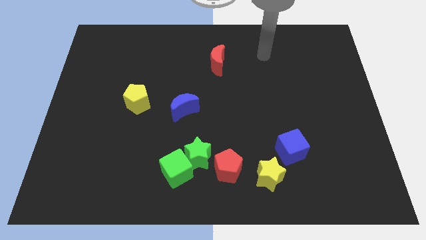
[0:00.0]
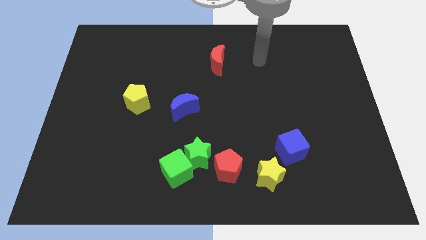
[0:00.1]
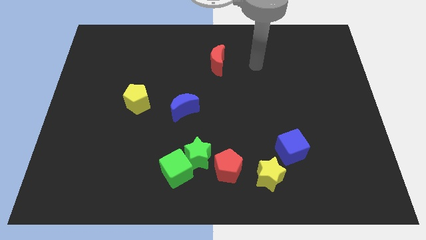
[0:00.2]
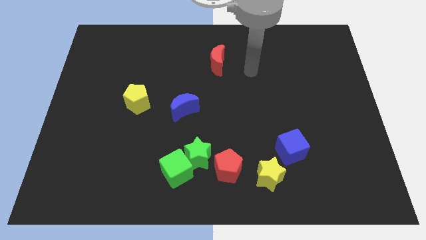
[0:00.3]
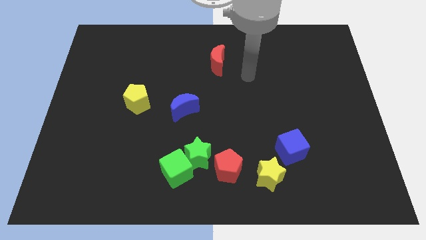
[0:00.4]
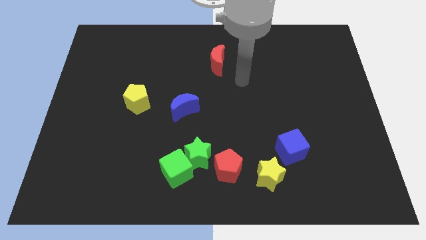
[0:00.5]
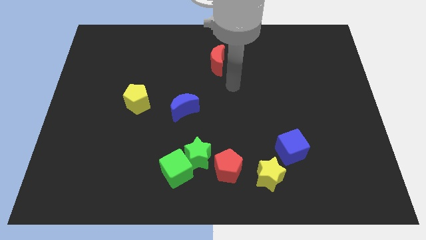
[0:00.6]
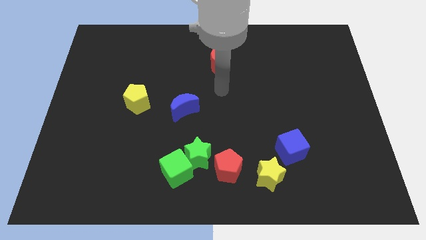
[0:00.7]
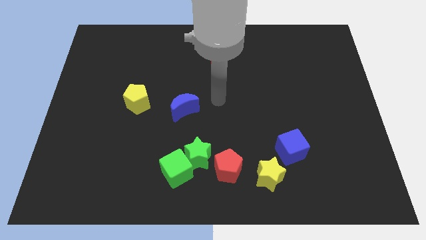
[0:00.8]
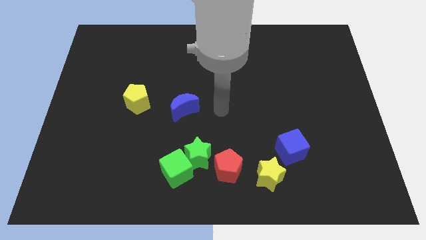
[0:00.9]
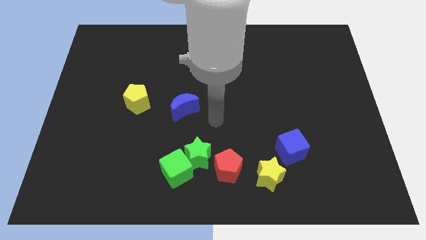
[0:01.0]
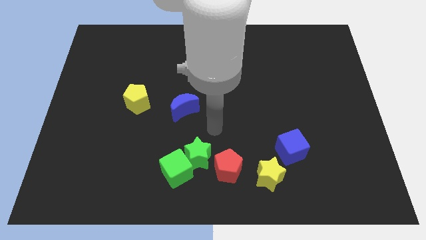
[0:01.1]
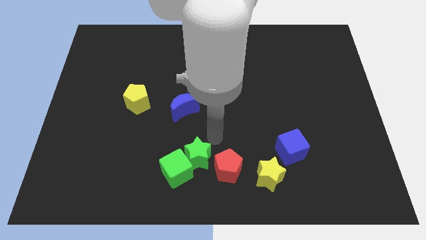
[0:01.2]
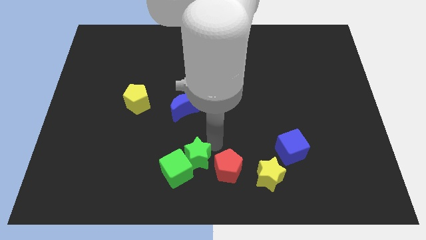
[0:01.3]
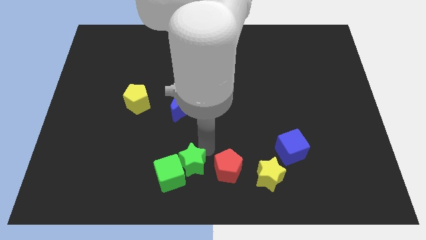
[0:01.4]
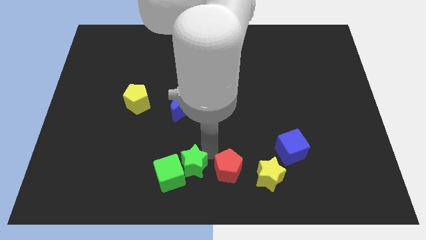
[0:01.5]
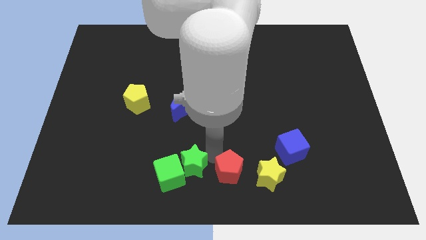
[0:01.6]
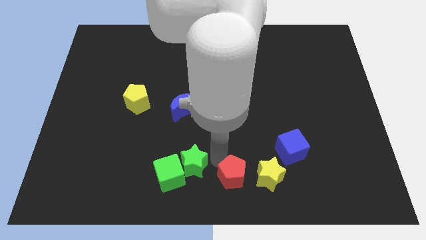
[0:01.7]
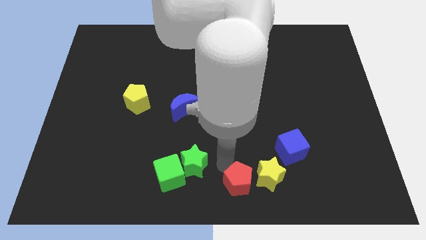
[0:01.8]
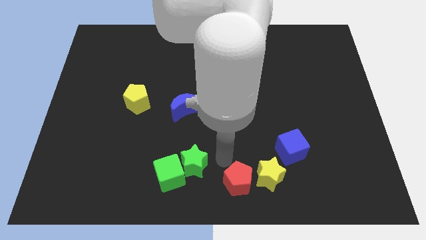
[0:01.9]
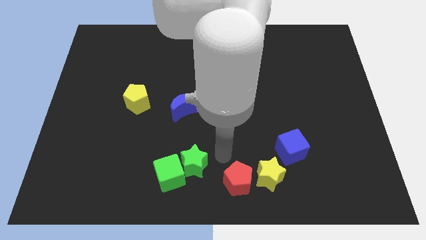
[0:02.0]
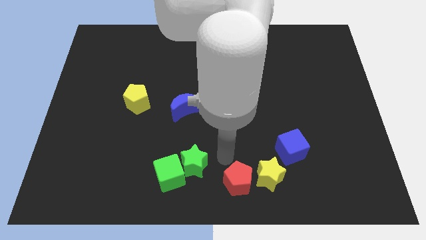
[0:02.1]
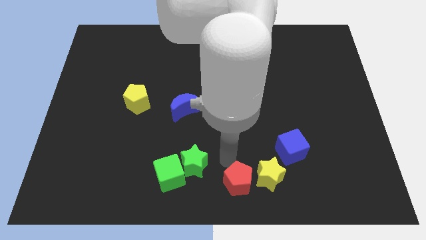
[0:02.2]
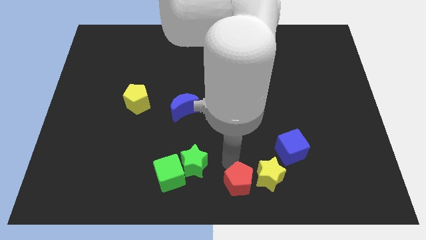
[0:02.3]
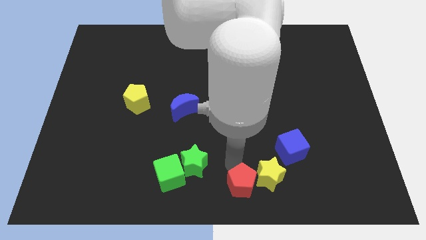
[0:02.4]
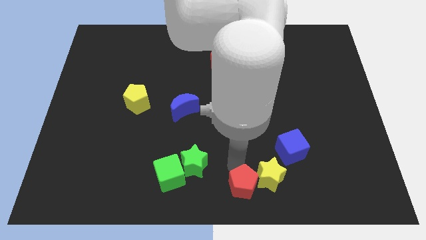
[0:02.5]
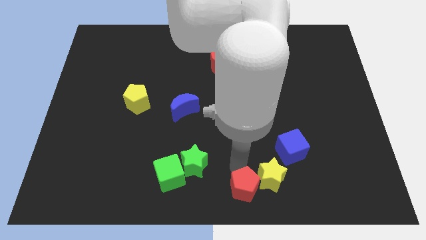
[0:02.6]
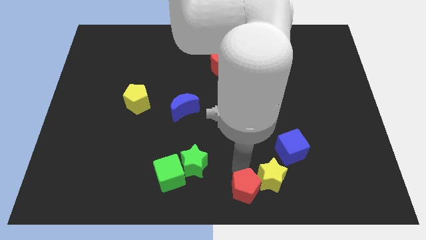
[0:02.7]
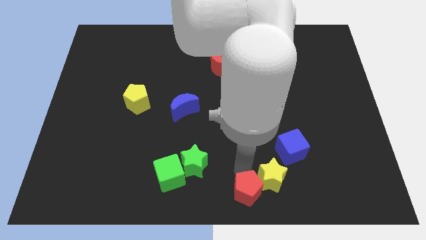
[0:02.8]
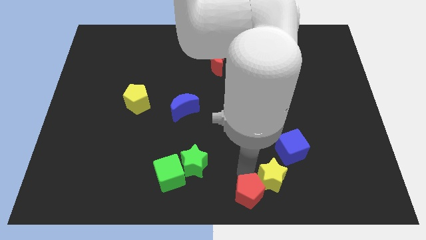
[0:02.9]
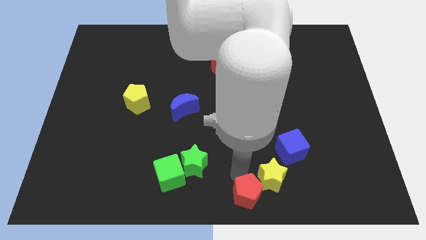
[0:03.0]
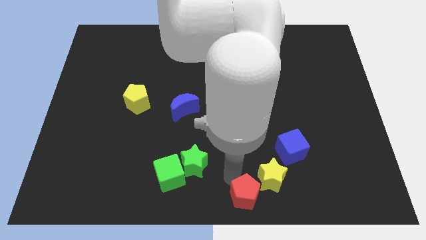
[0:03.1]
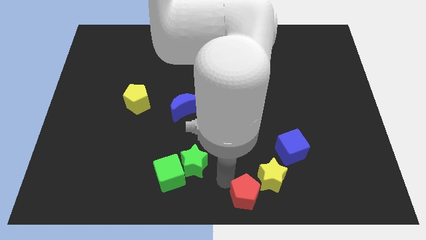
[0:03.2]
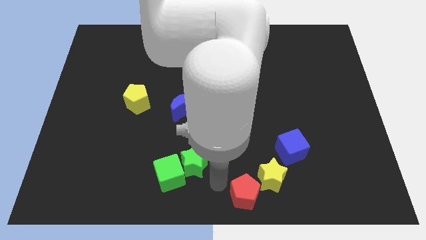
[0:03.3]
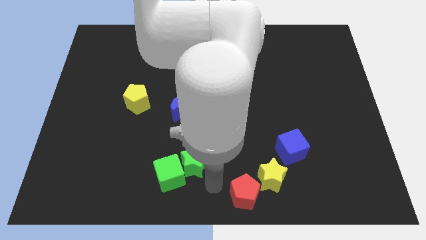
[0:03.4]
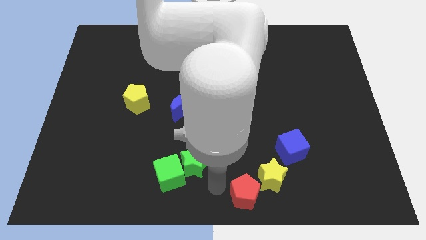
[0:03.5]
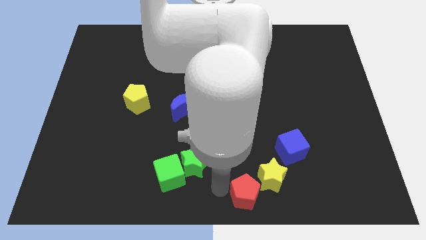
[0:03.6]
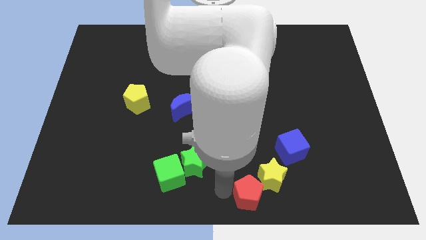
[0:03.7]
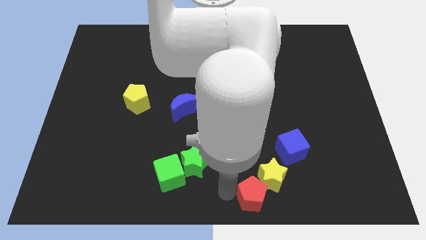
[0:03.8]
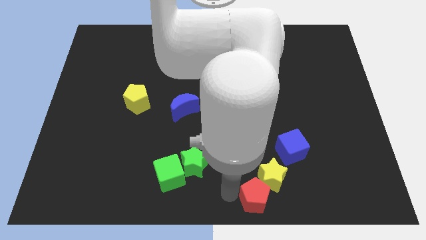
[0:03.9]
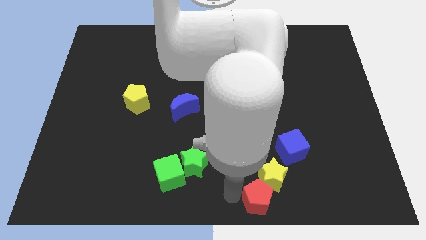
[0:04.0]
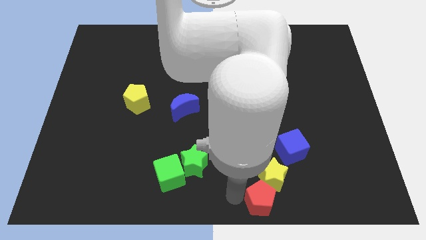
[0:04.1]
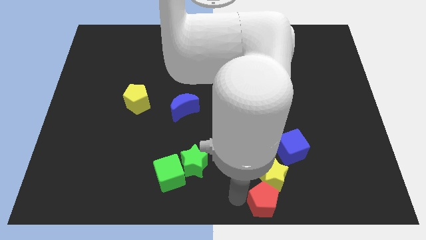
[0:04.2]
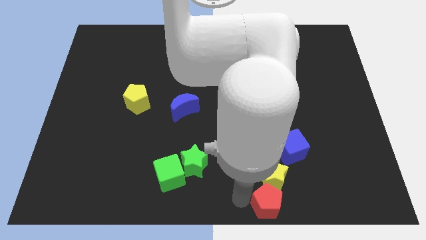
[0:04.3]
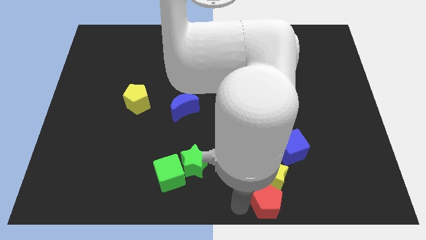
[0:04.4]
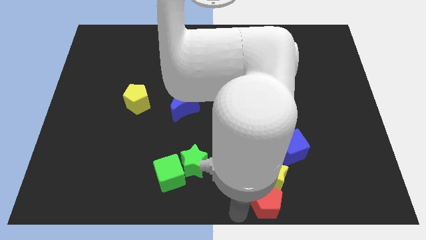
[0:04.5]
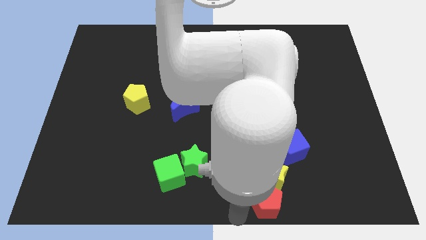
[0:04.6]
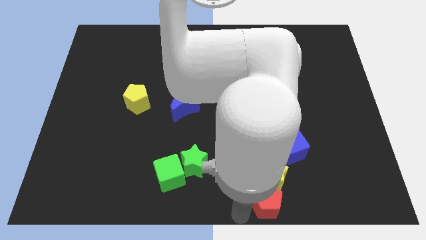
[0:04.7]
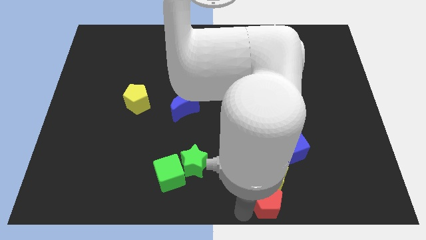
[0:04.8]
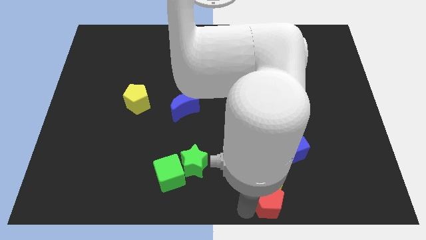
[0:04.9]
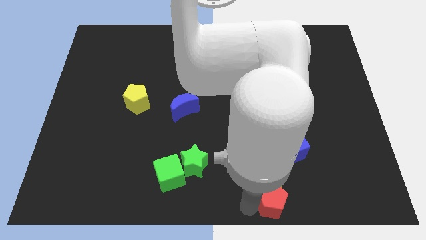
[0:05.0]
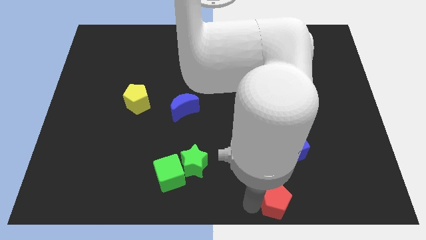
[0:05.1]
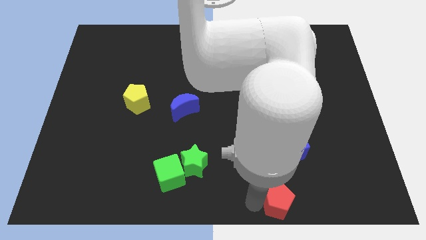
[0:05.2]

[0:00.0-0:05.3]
slightly slide the red pentagon to the right

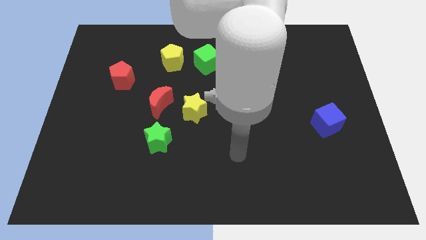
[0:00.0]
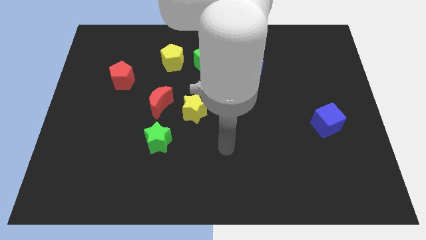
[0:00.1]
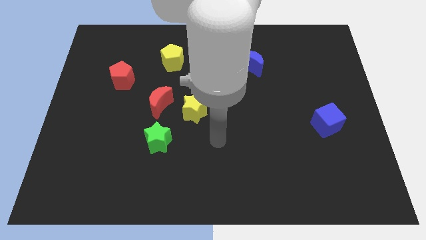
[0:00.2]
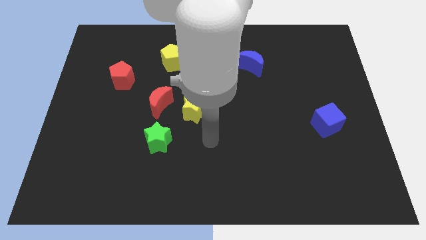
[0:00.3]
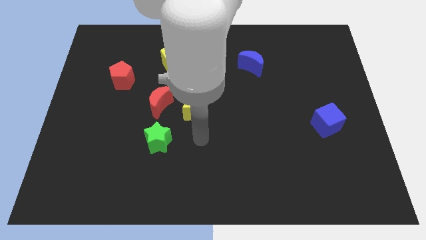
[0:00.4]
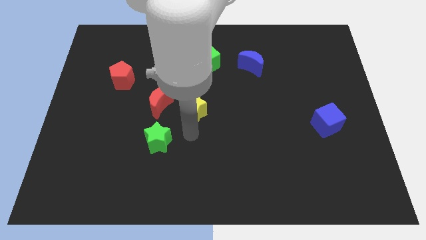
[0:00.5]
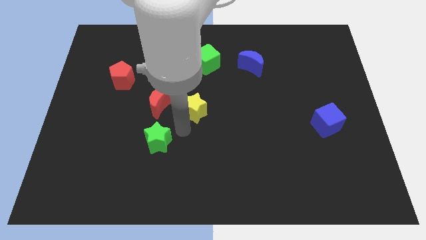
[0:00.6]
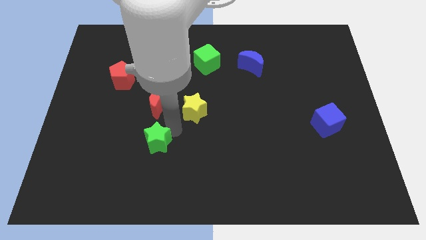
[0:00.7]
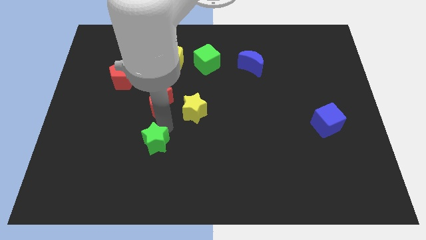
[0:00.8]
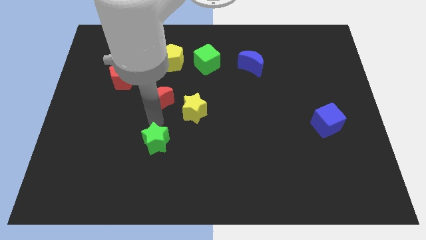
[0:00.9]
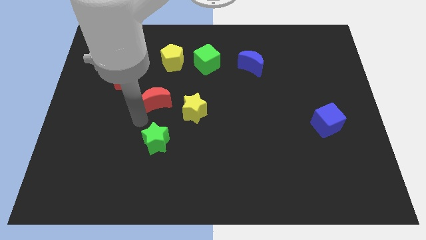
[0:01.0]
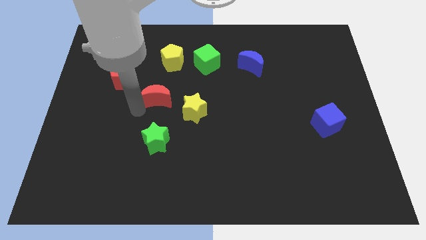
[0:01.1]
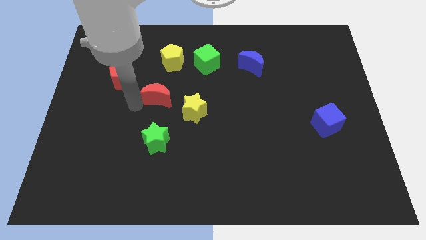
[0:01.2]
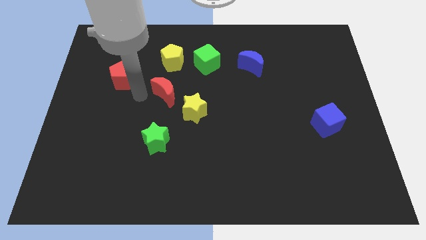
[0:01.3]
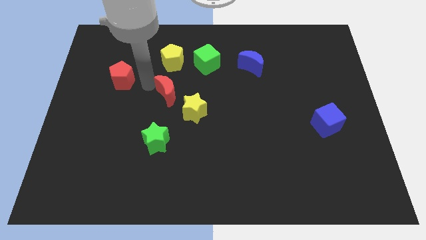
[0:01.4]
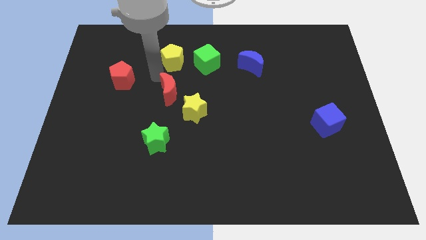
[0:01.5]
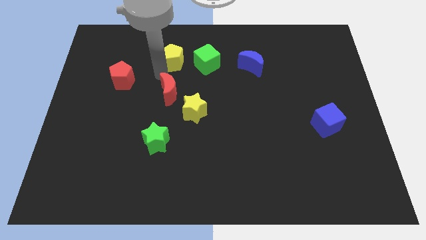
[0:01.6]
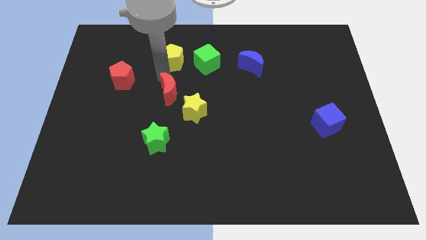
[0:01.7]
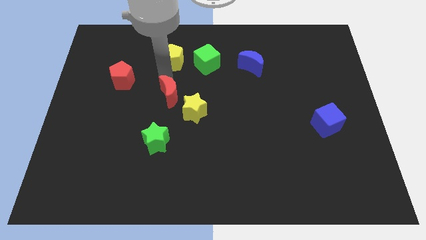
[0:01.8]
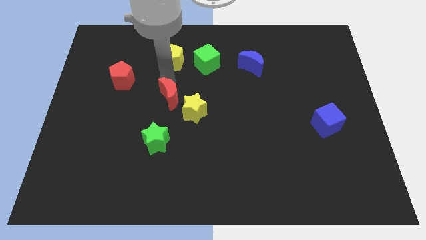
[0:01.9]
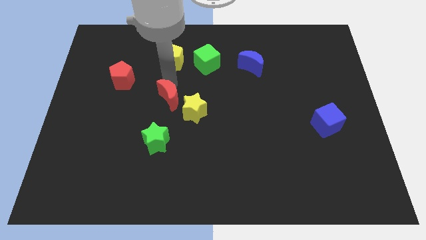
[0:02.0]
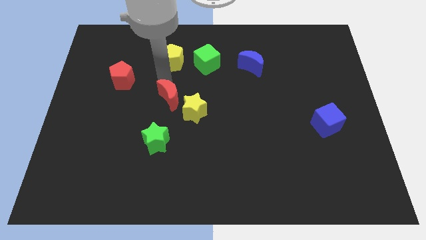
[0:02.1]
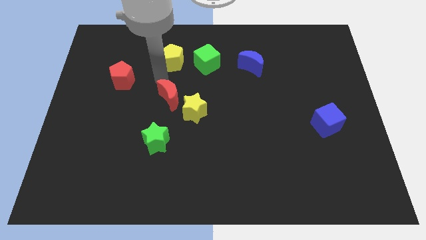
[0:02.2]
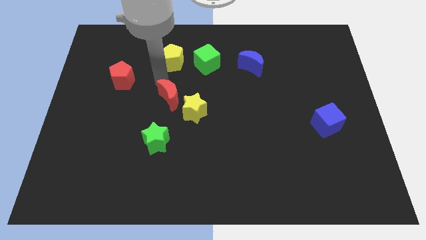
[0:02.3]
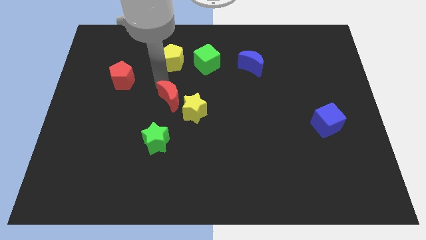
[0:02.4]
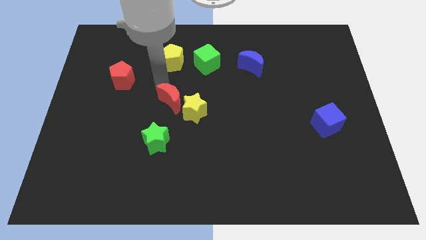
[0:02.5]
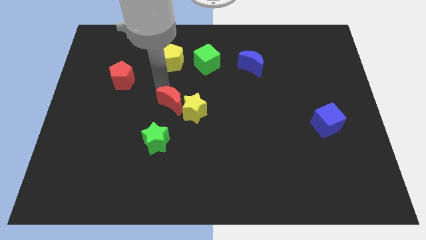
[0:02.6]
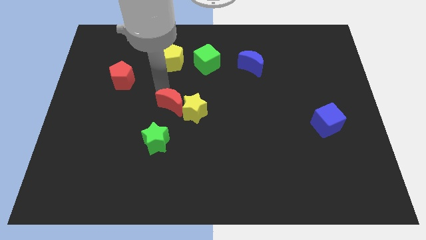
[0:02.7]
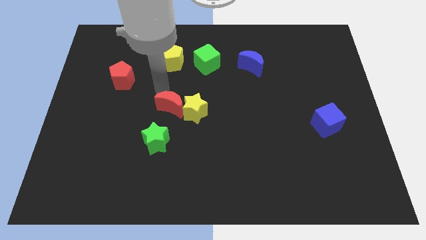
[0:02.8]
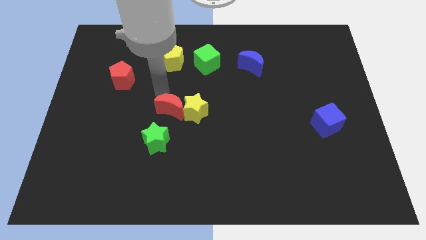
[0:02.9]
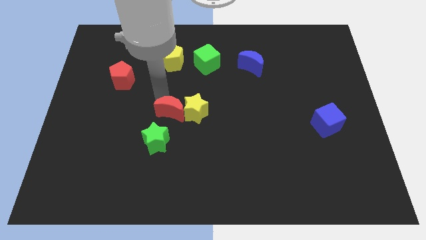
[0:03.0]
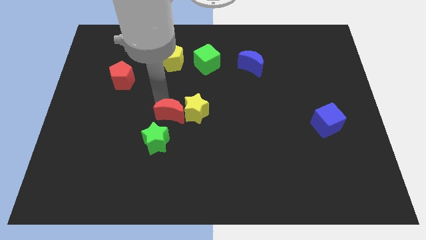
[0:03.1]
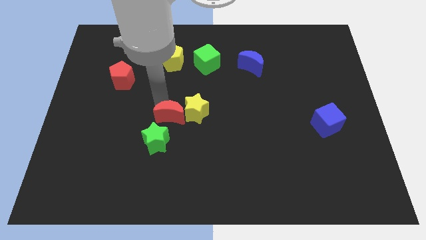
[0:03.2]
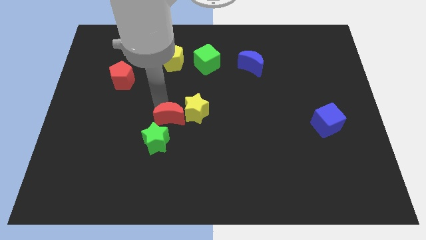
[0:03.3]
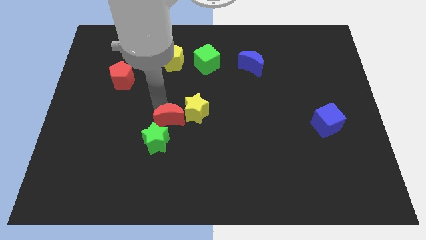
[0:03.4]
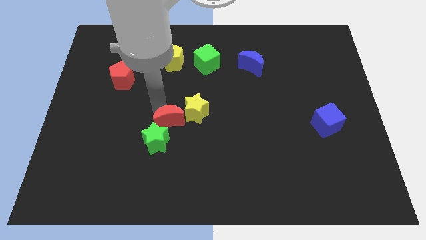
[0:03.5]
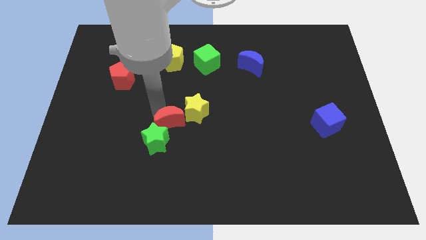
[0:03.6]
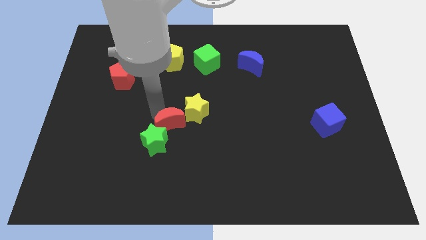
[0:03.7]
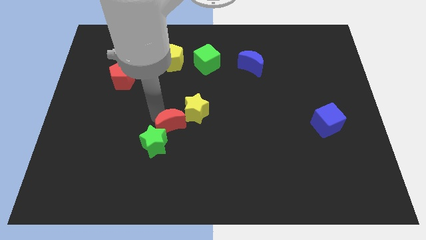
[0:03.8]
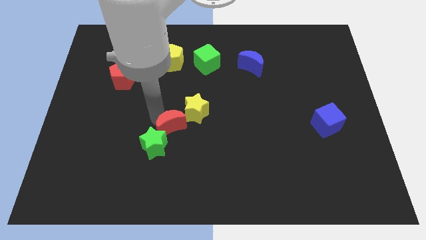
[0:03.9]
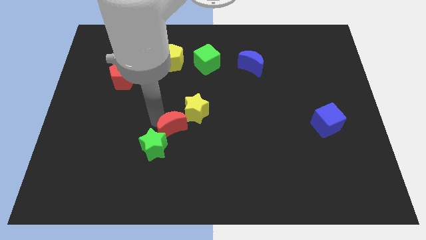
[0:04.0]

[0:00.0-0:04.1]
push the red moon diagonally downwards and to the right slightly
